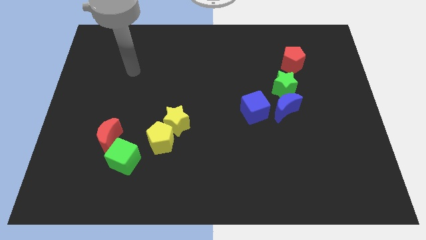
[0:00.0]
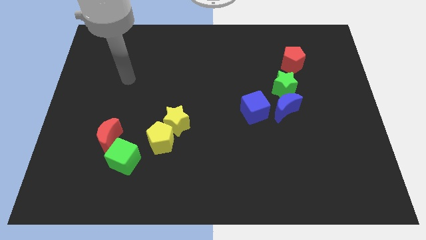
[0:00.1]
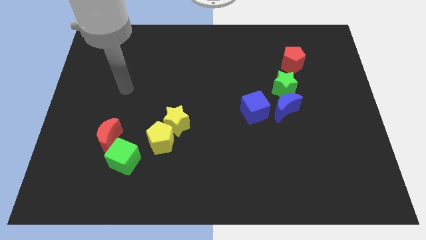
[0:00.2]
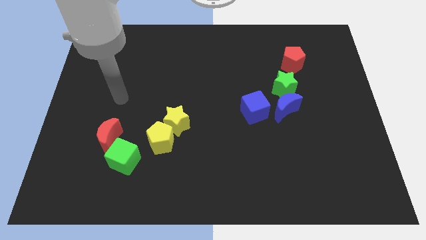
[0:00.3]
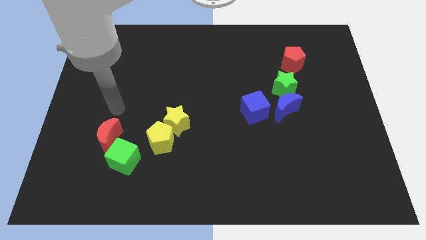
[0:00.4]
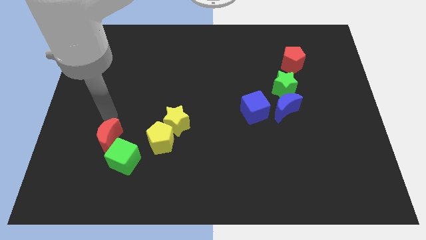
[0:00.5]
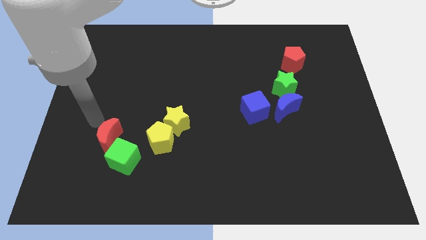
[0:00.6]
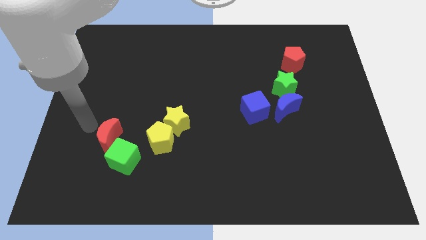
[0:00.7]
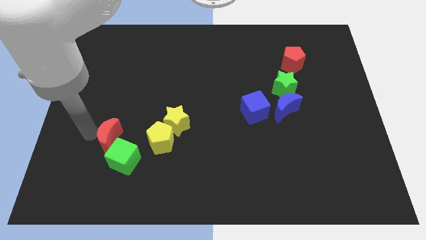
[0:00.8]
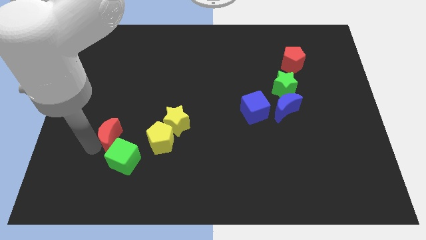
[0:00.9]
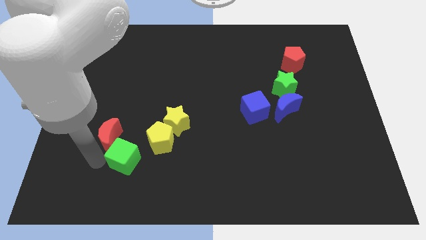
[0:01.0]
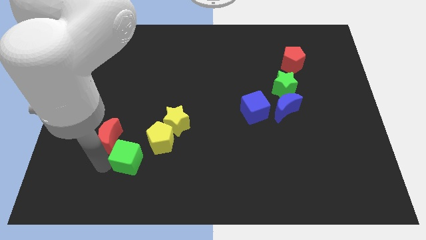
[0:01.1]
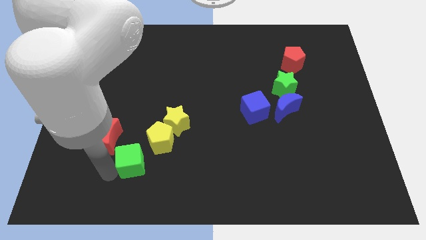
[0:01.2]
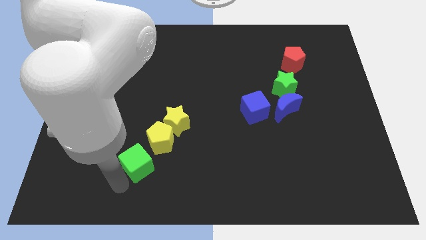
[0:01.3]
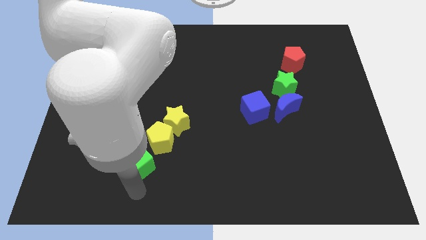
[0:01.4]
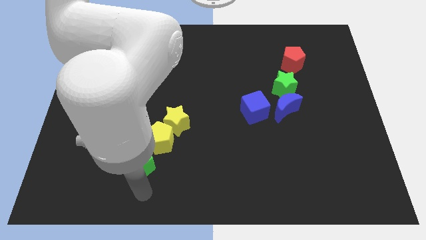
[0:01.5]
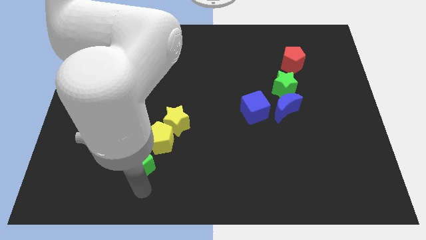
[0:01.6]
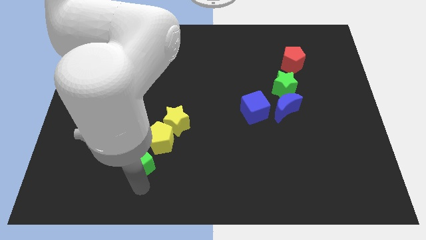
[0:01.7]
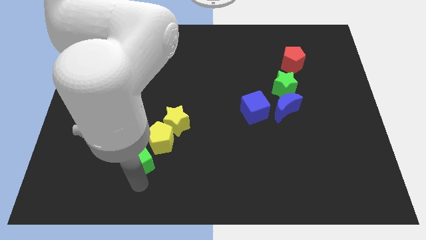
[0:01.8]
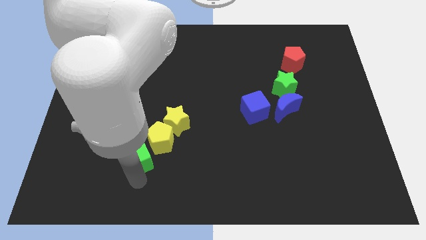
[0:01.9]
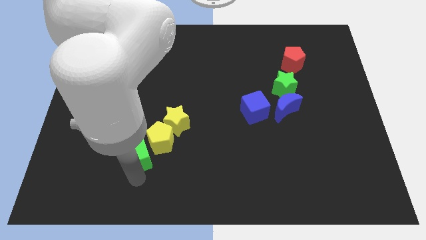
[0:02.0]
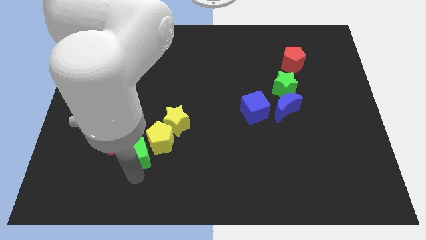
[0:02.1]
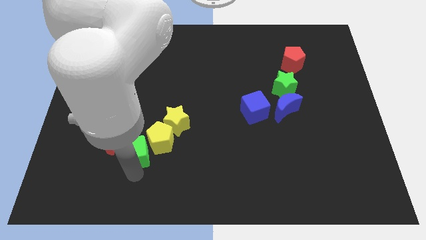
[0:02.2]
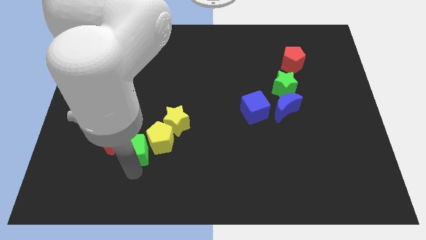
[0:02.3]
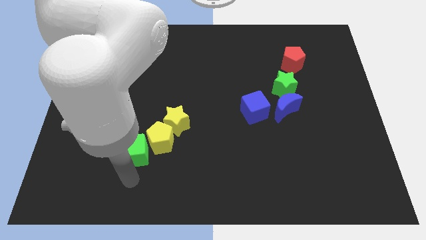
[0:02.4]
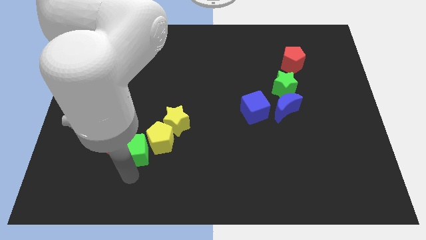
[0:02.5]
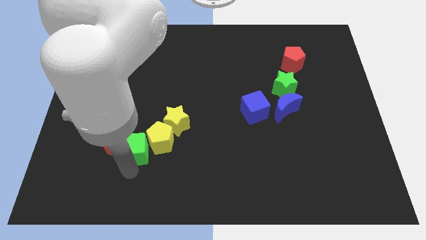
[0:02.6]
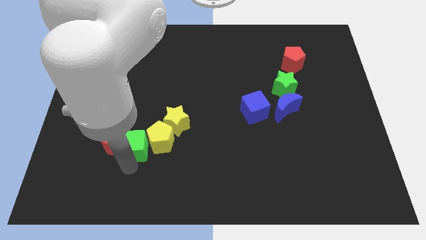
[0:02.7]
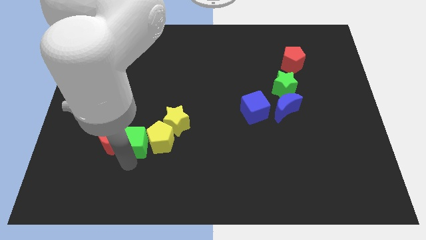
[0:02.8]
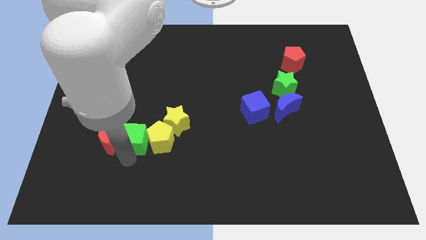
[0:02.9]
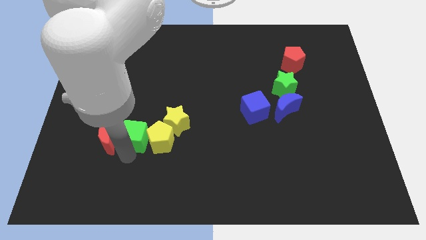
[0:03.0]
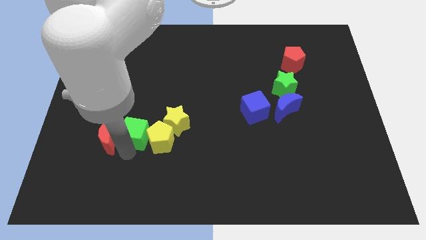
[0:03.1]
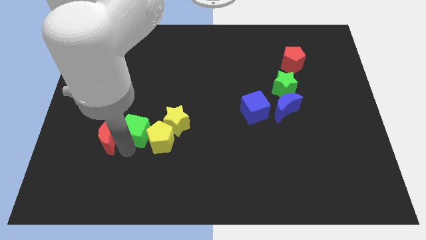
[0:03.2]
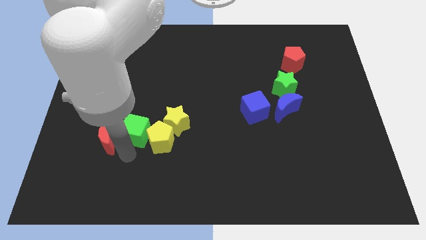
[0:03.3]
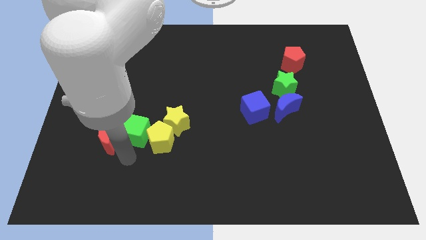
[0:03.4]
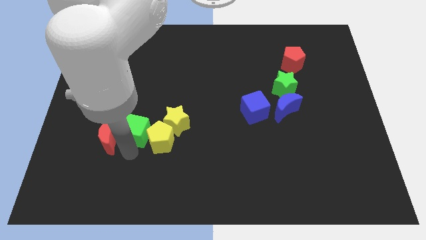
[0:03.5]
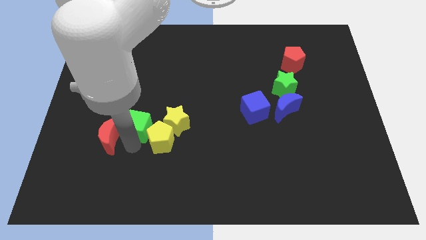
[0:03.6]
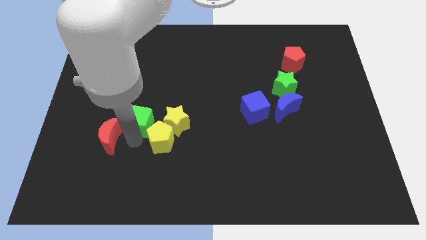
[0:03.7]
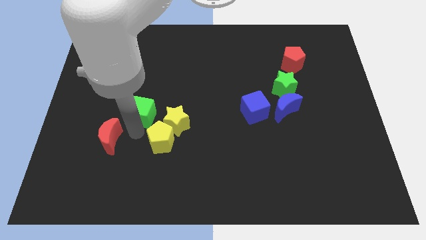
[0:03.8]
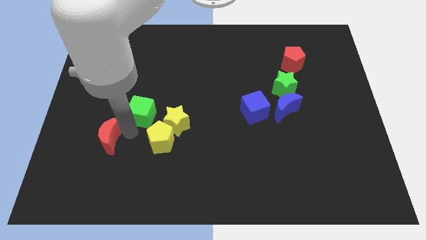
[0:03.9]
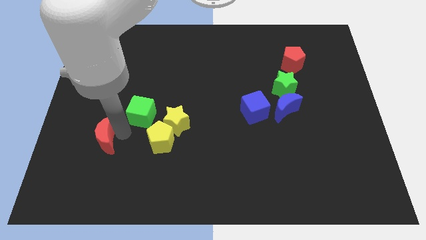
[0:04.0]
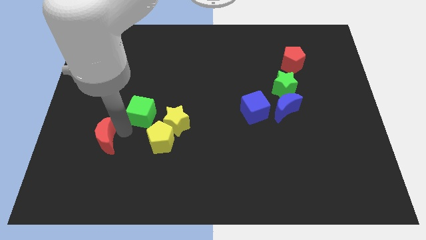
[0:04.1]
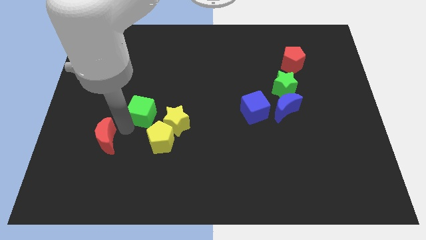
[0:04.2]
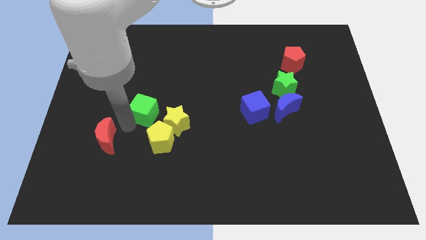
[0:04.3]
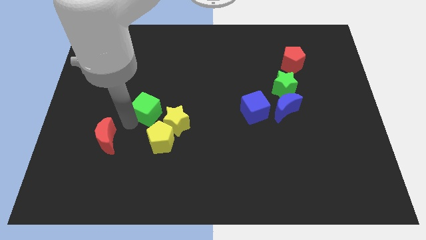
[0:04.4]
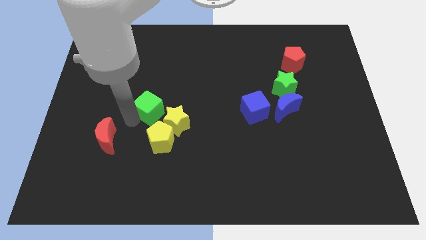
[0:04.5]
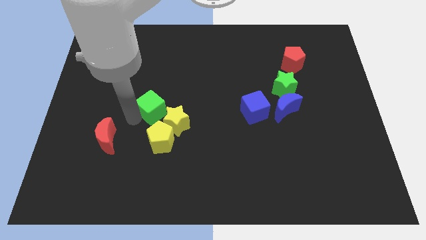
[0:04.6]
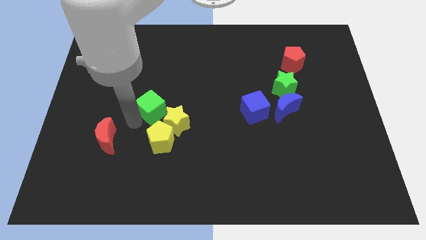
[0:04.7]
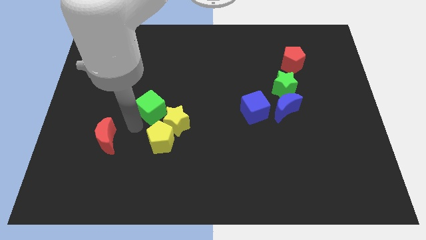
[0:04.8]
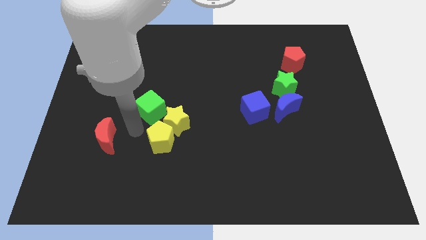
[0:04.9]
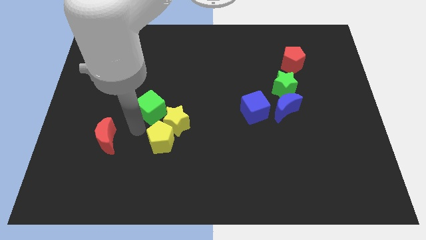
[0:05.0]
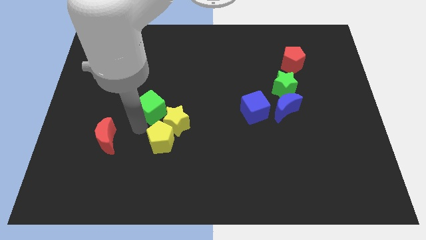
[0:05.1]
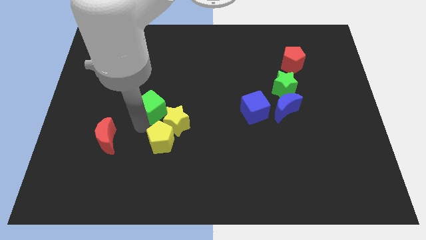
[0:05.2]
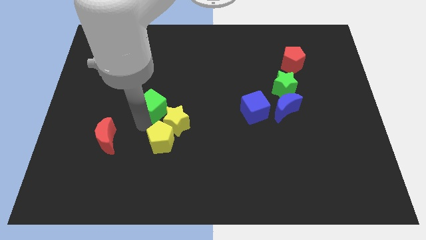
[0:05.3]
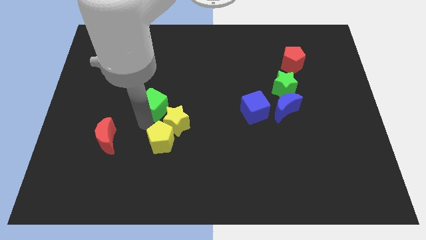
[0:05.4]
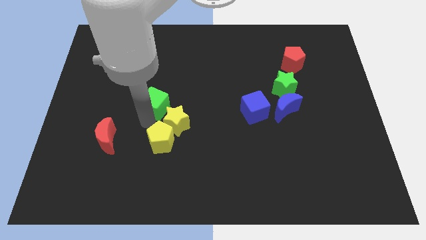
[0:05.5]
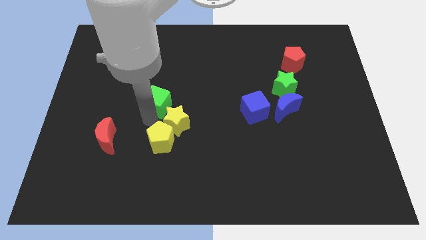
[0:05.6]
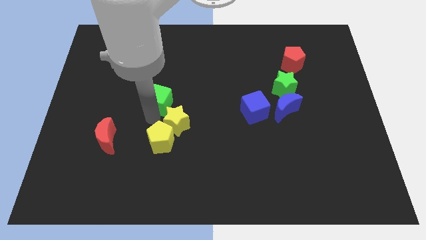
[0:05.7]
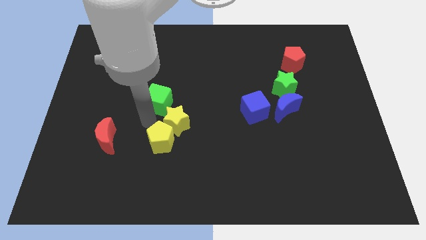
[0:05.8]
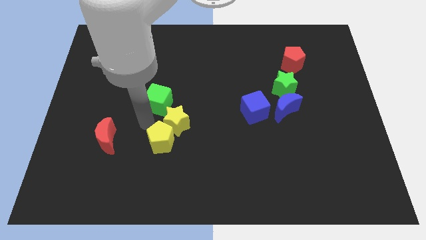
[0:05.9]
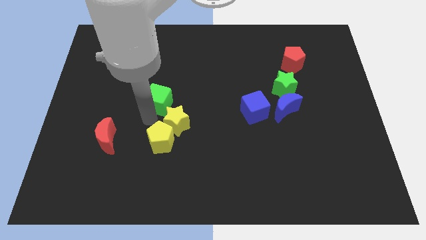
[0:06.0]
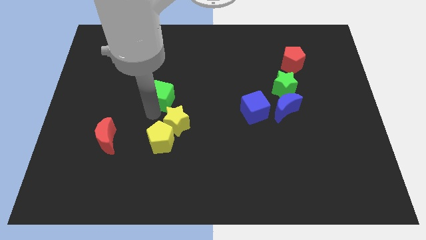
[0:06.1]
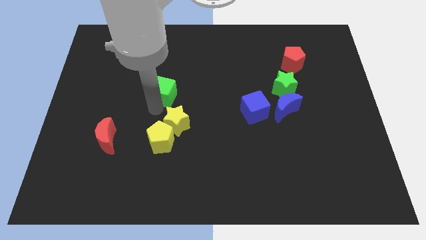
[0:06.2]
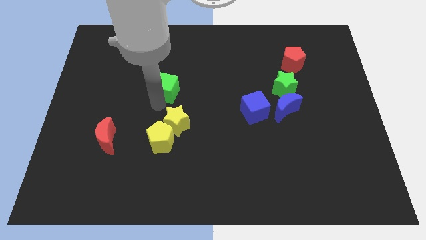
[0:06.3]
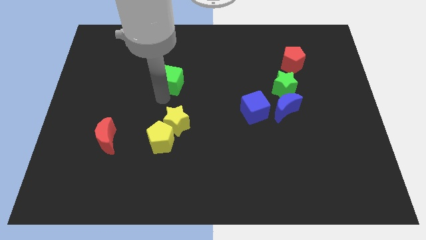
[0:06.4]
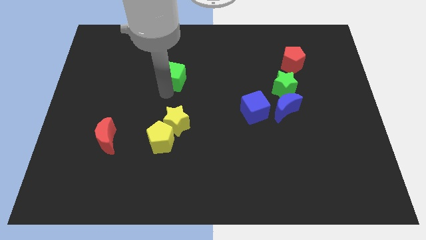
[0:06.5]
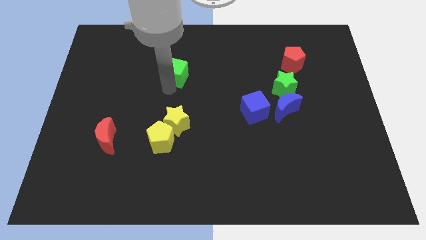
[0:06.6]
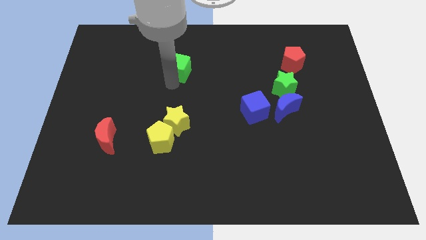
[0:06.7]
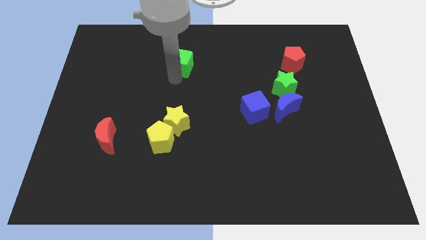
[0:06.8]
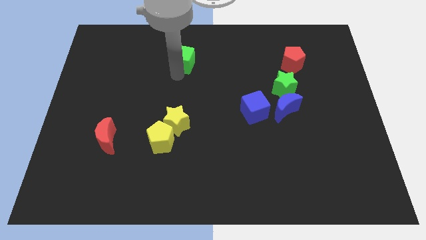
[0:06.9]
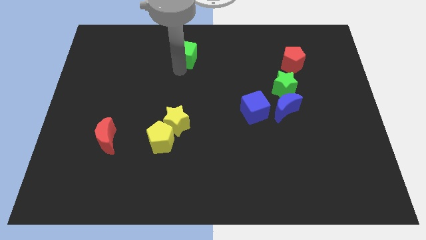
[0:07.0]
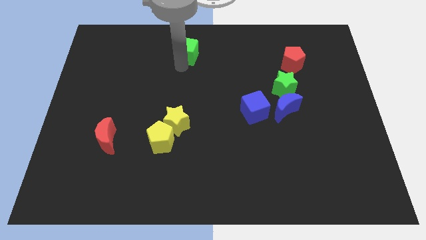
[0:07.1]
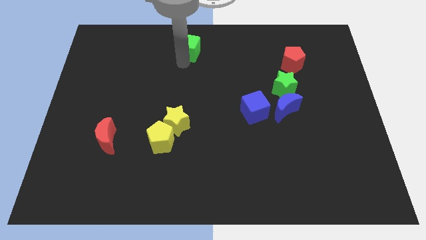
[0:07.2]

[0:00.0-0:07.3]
push the green cube to the towards your base

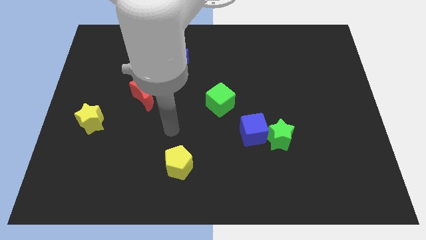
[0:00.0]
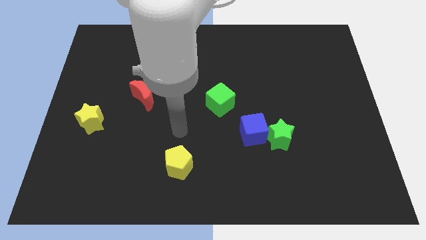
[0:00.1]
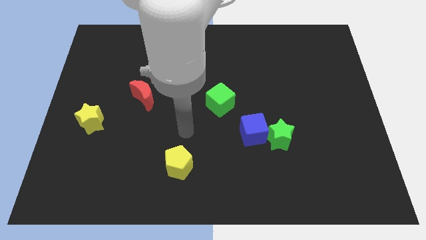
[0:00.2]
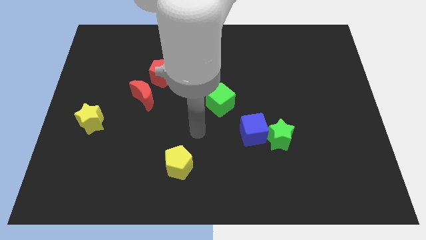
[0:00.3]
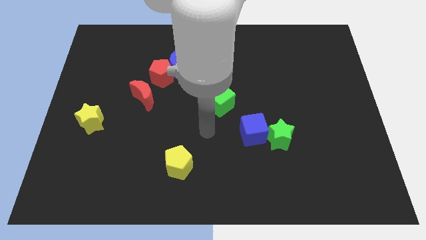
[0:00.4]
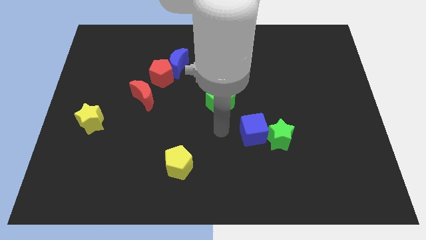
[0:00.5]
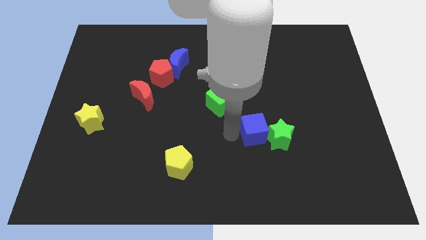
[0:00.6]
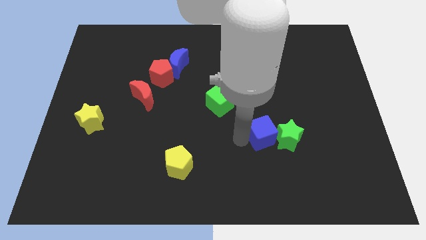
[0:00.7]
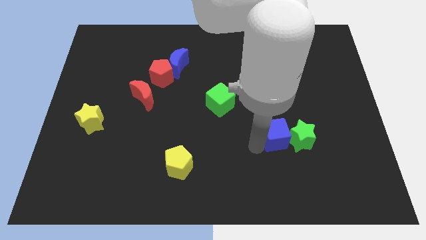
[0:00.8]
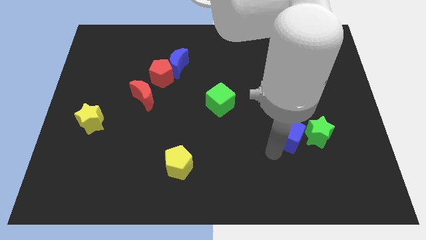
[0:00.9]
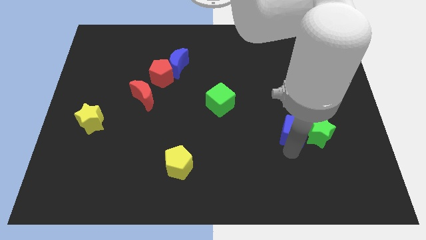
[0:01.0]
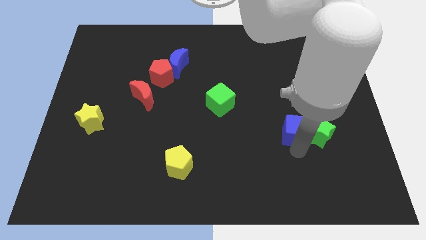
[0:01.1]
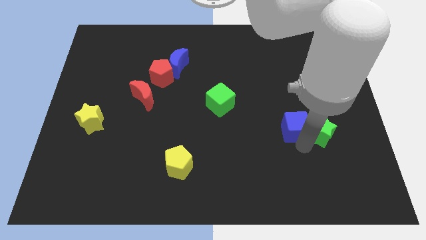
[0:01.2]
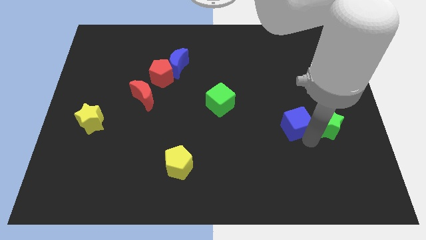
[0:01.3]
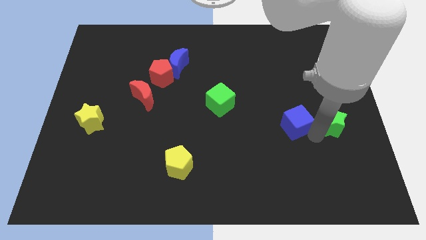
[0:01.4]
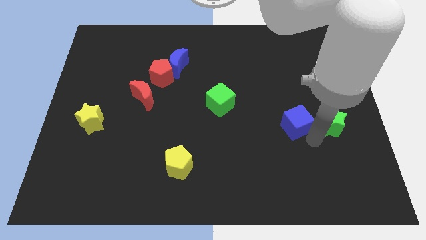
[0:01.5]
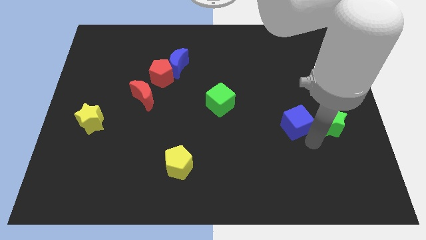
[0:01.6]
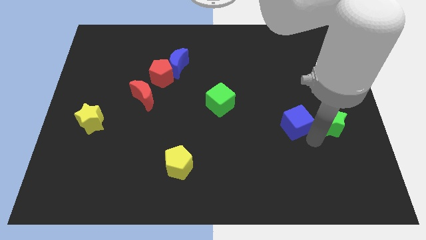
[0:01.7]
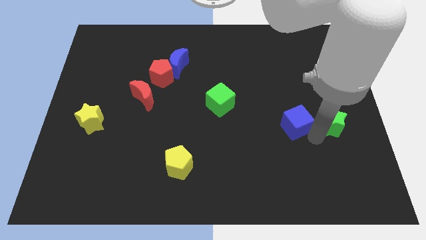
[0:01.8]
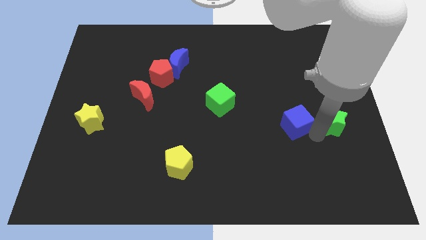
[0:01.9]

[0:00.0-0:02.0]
move the green star to the right side of the board
